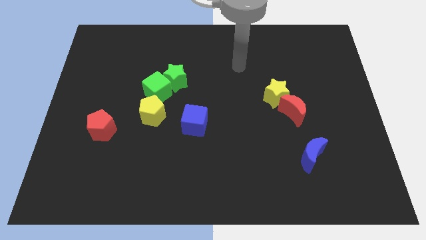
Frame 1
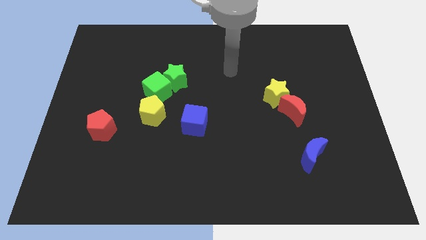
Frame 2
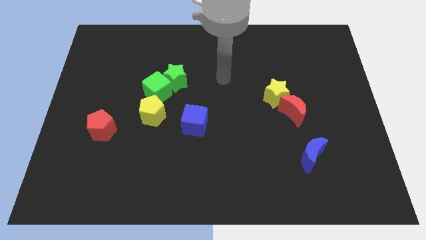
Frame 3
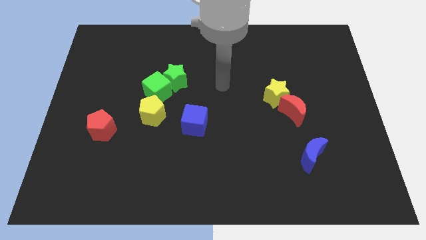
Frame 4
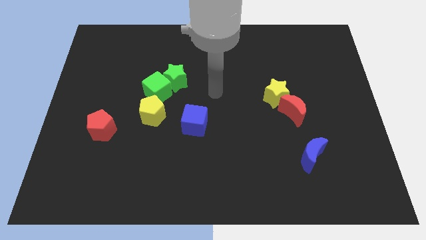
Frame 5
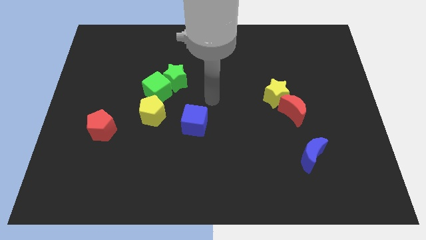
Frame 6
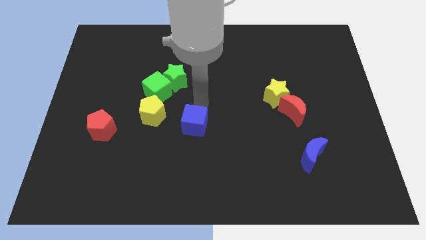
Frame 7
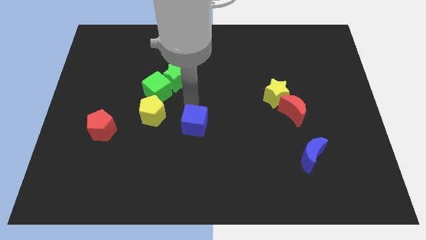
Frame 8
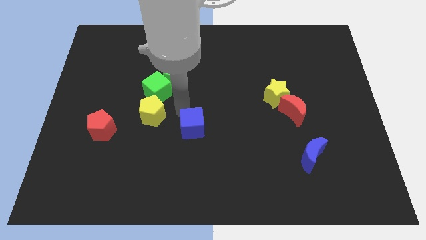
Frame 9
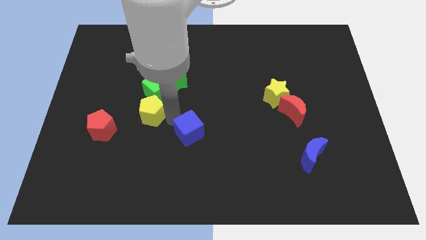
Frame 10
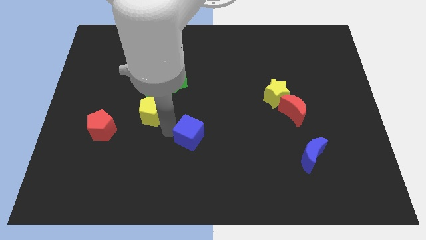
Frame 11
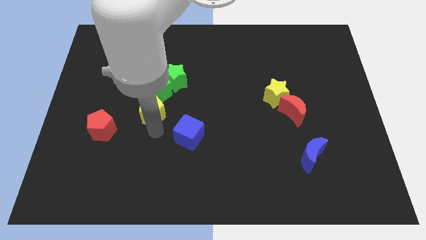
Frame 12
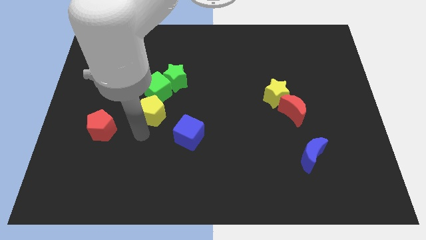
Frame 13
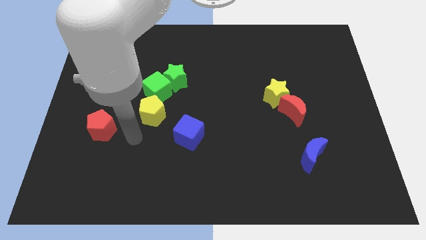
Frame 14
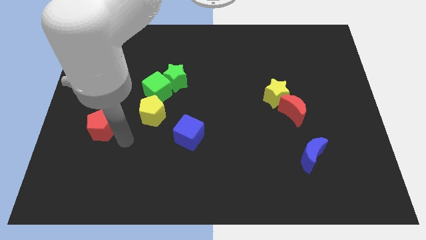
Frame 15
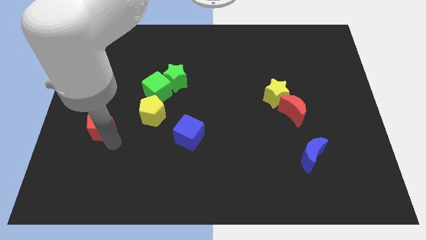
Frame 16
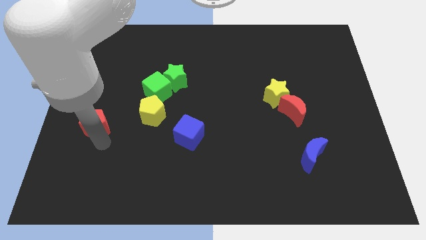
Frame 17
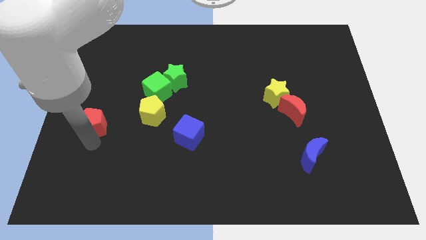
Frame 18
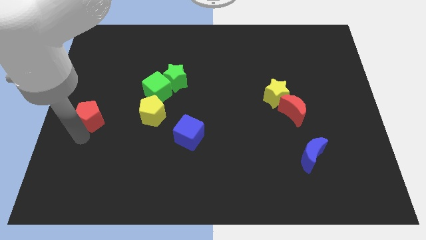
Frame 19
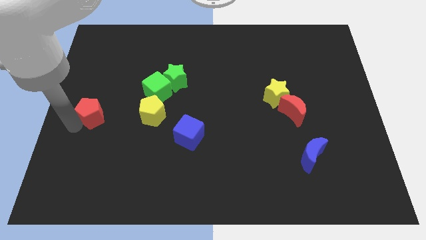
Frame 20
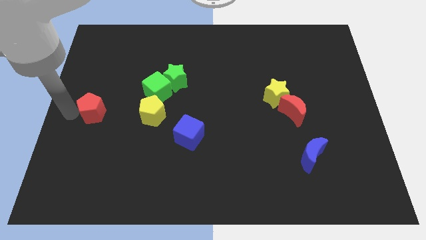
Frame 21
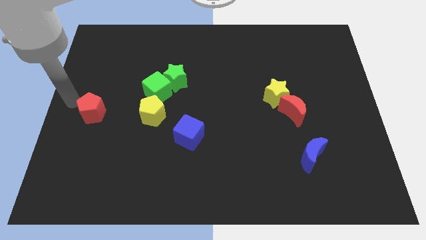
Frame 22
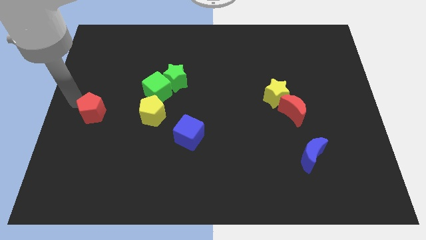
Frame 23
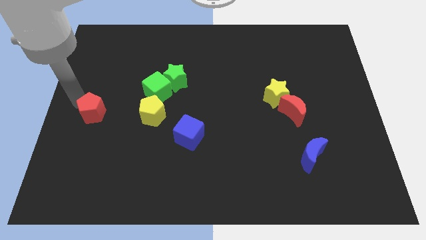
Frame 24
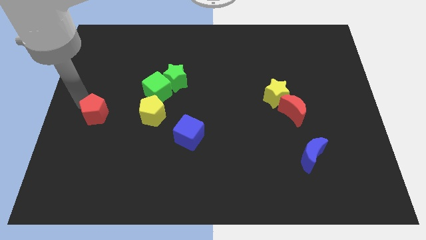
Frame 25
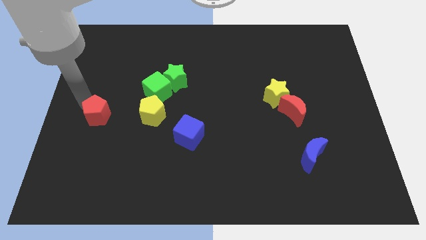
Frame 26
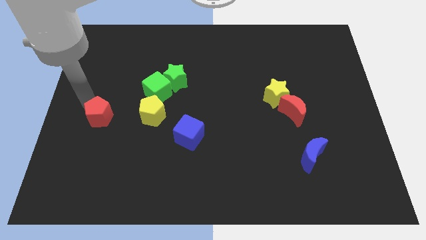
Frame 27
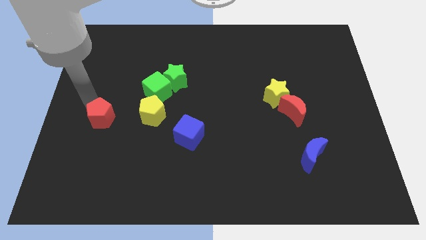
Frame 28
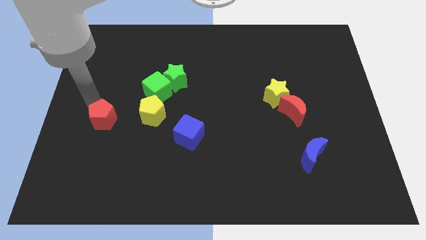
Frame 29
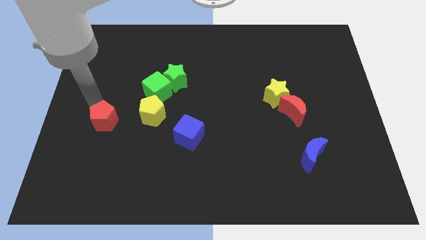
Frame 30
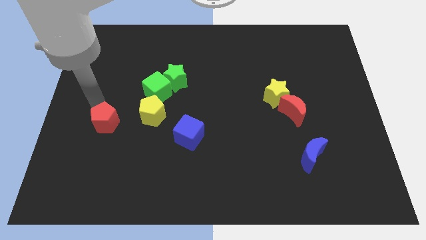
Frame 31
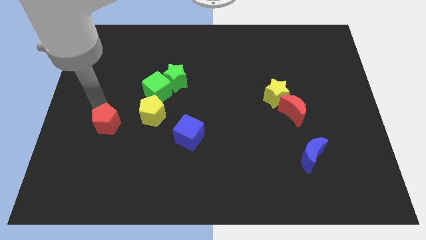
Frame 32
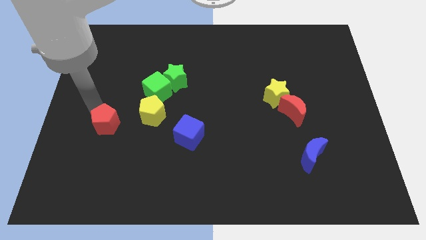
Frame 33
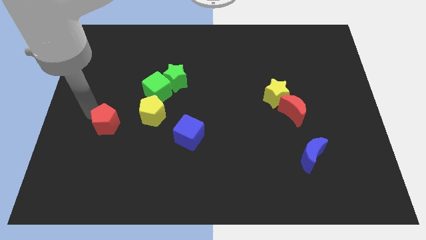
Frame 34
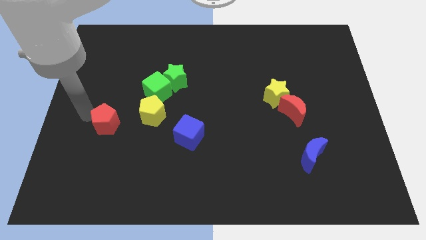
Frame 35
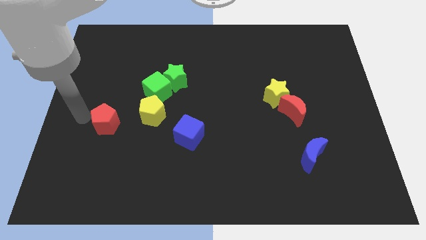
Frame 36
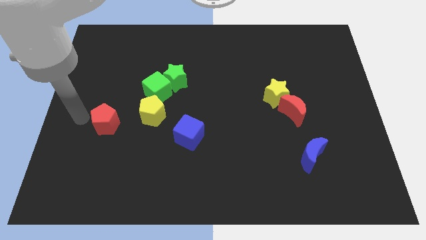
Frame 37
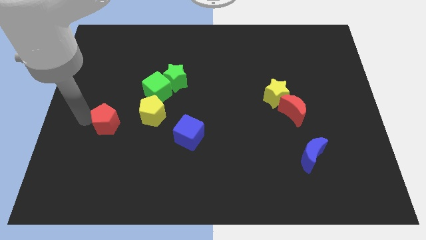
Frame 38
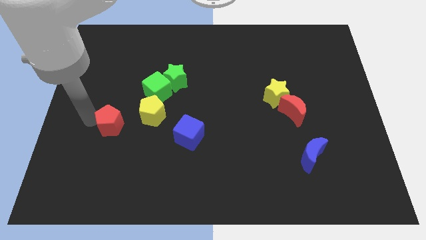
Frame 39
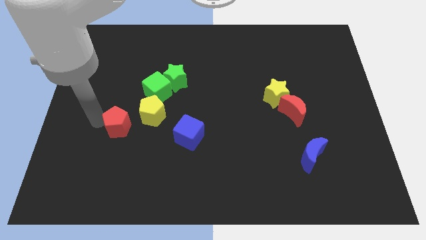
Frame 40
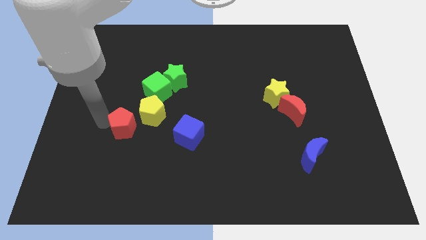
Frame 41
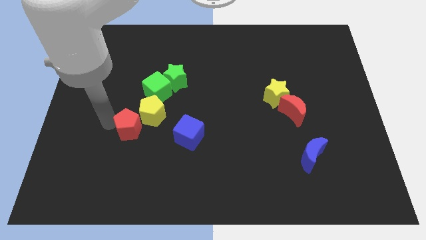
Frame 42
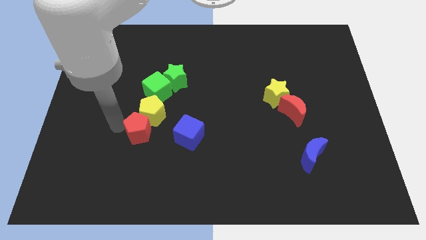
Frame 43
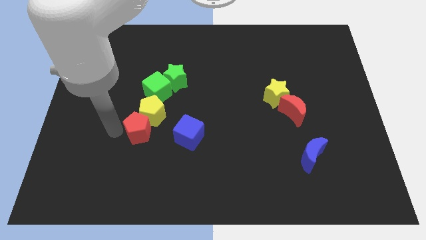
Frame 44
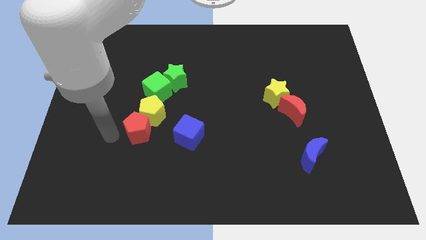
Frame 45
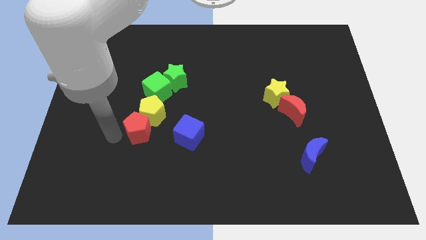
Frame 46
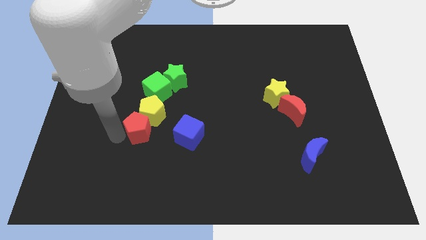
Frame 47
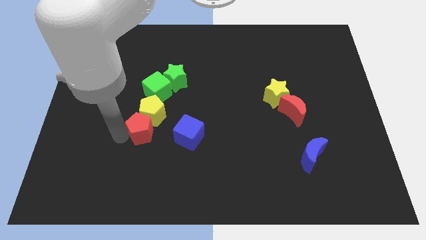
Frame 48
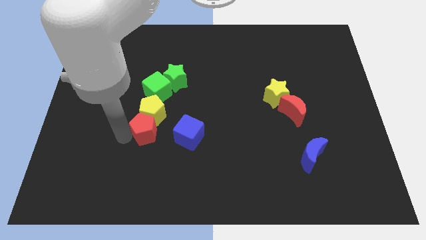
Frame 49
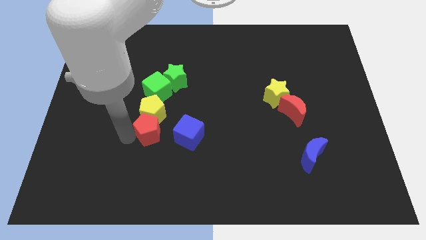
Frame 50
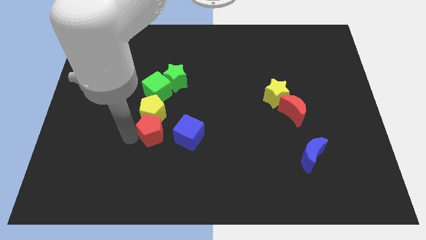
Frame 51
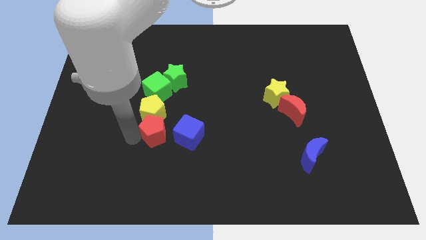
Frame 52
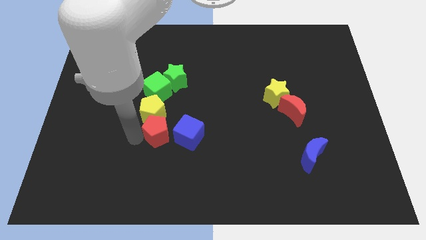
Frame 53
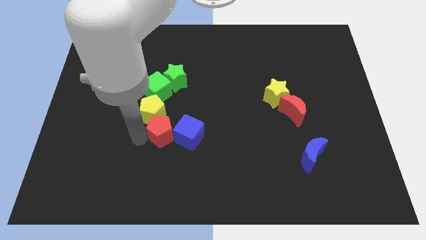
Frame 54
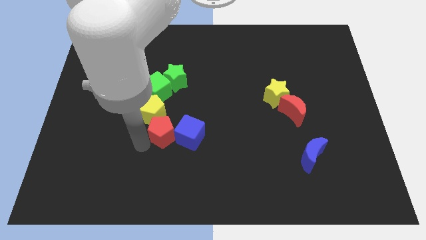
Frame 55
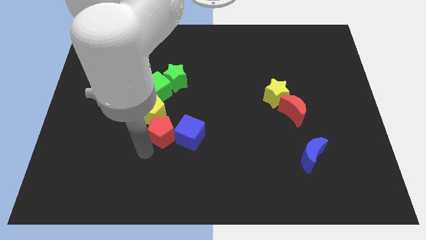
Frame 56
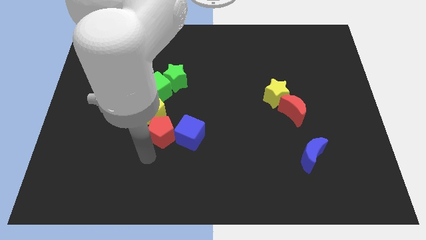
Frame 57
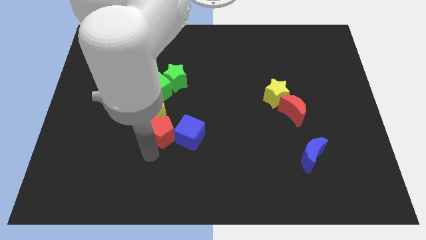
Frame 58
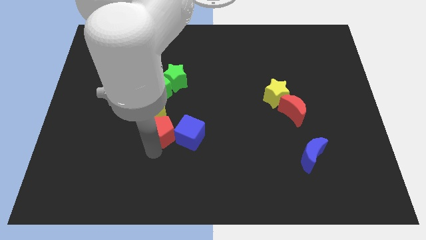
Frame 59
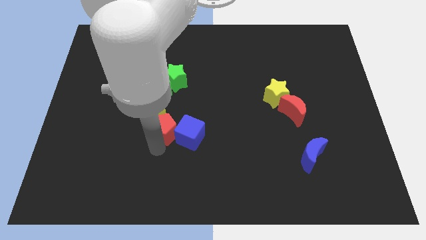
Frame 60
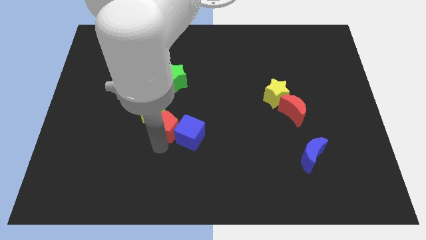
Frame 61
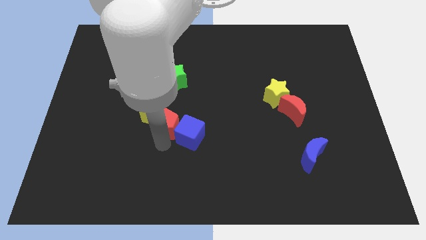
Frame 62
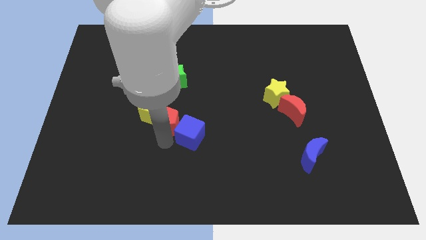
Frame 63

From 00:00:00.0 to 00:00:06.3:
move the red pentagon to the center of the board

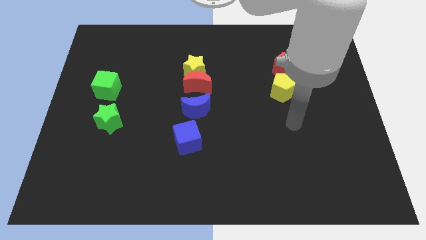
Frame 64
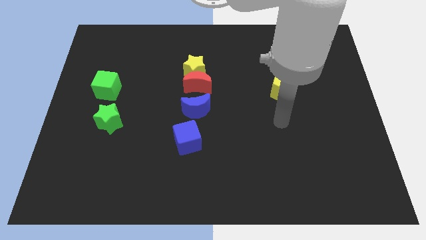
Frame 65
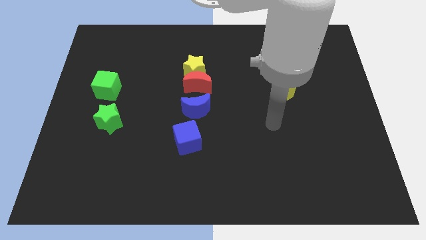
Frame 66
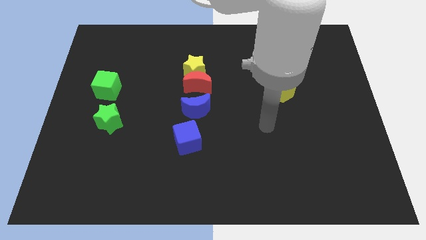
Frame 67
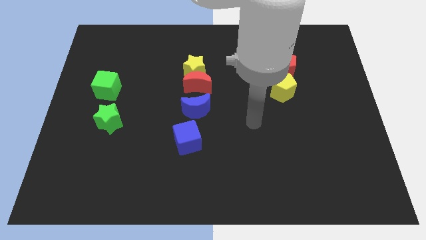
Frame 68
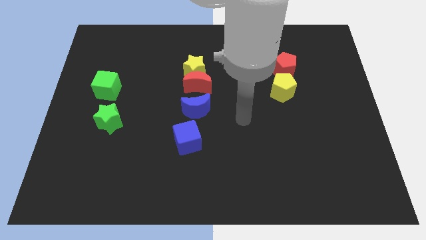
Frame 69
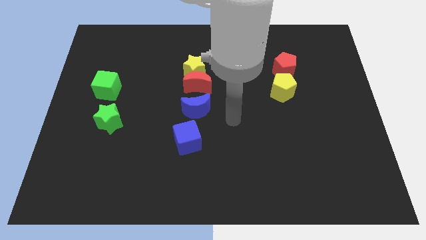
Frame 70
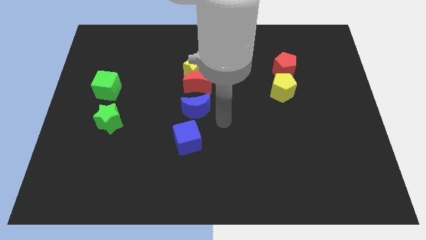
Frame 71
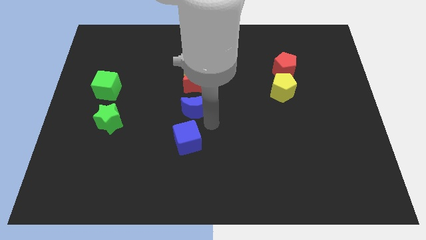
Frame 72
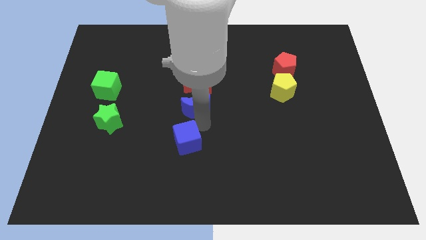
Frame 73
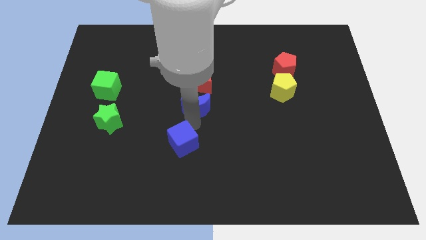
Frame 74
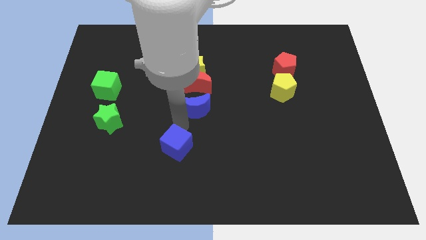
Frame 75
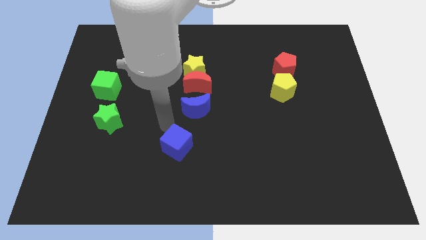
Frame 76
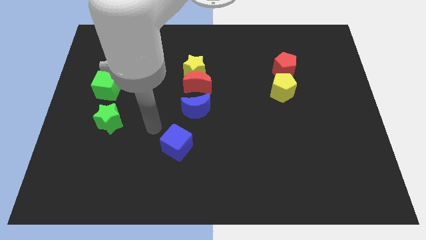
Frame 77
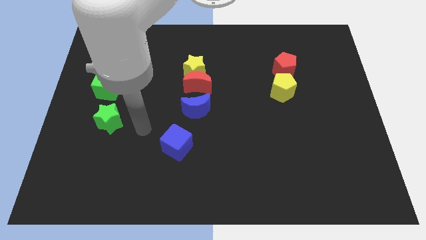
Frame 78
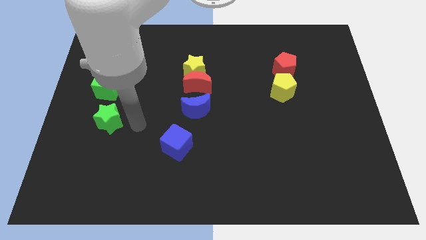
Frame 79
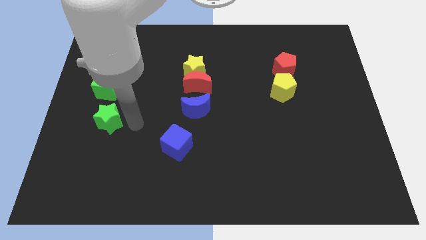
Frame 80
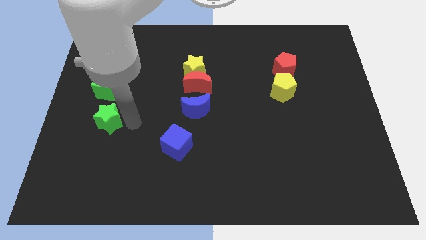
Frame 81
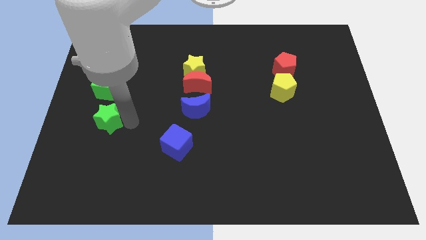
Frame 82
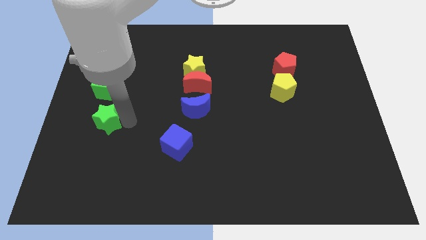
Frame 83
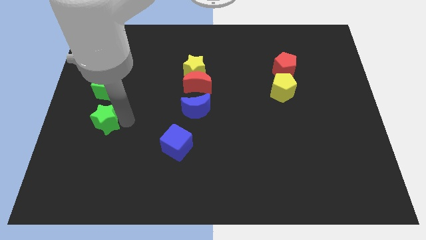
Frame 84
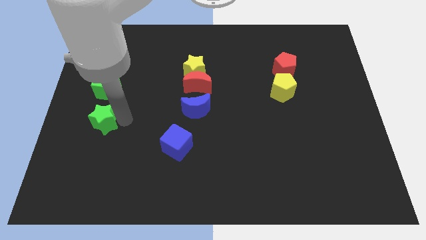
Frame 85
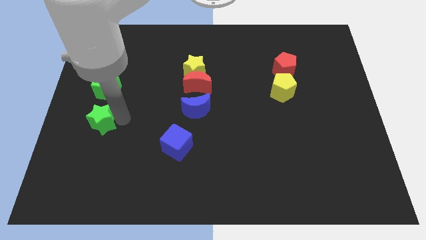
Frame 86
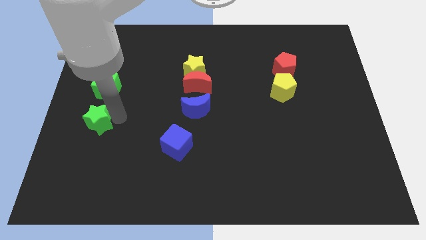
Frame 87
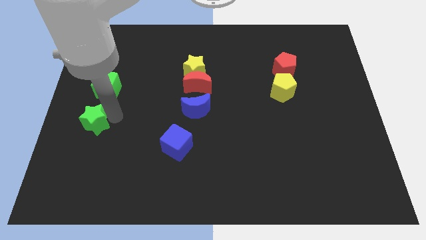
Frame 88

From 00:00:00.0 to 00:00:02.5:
push the green star to the center left
